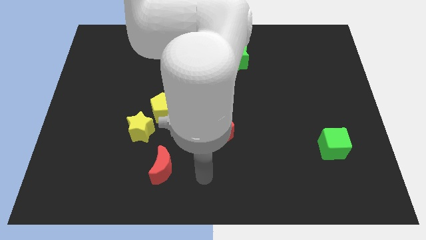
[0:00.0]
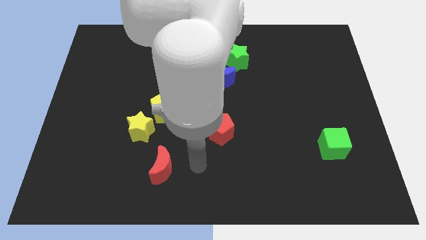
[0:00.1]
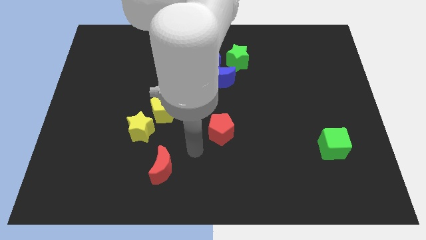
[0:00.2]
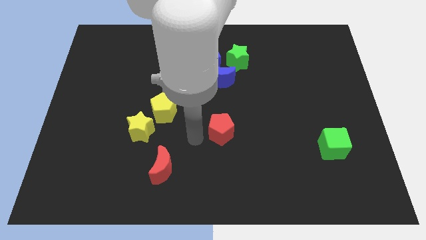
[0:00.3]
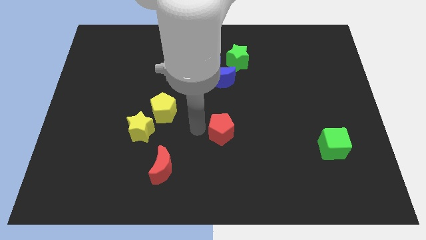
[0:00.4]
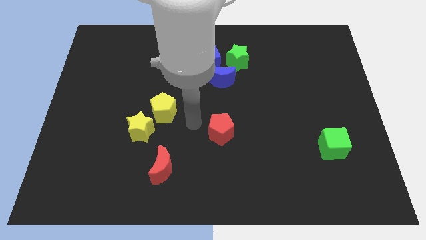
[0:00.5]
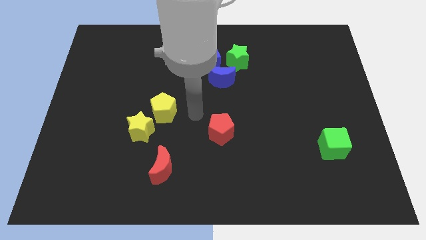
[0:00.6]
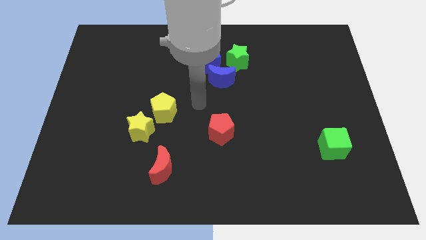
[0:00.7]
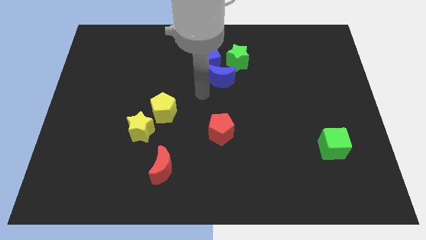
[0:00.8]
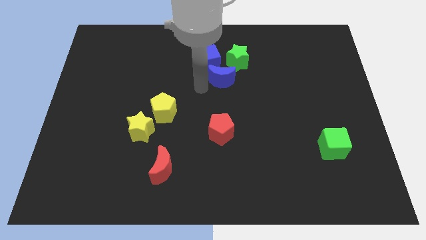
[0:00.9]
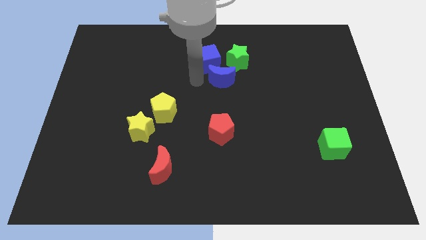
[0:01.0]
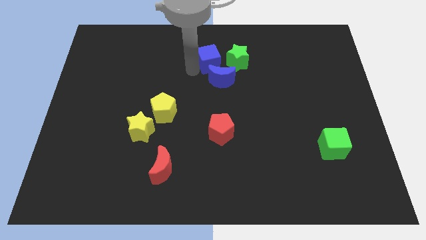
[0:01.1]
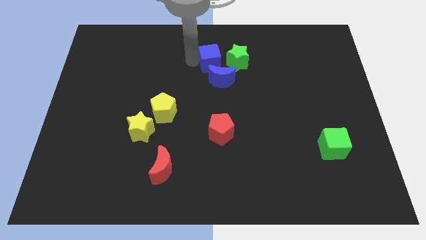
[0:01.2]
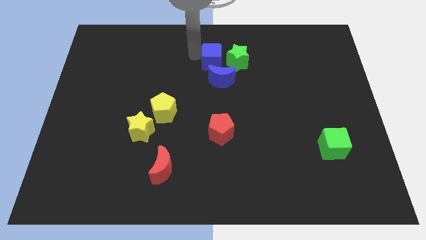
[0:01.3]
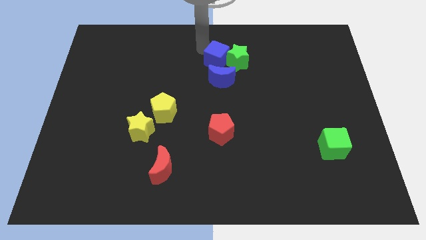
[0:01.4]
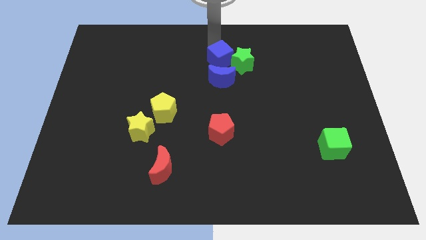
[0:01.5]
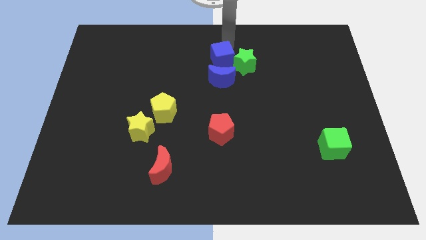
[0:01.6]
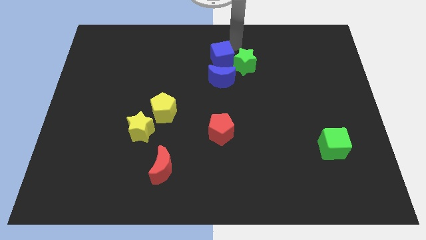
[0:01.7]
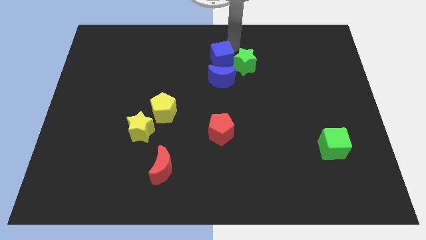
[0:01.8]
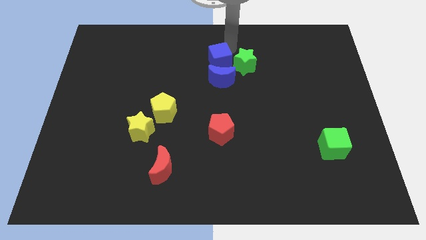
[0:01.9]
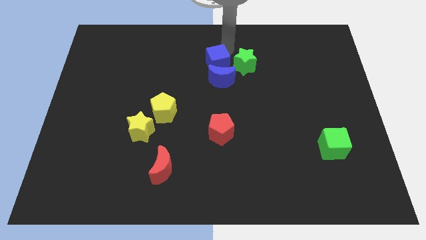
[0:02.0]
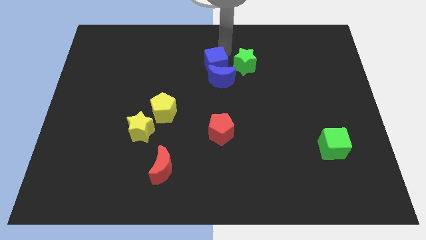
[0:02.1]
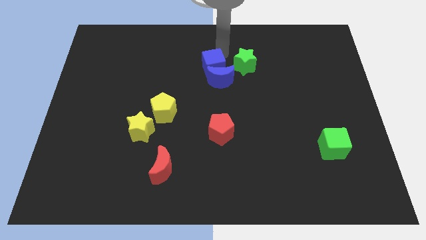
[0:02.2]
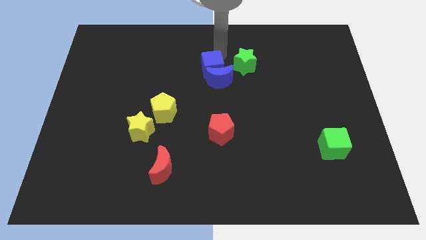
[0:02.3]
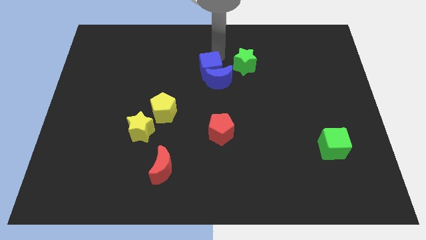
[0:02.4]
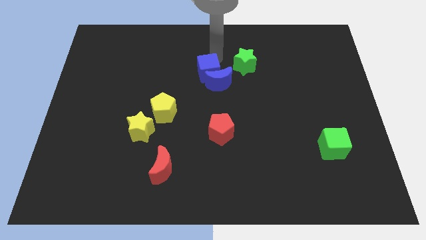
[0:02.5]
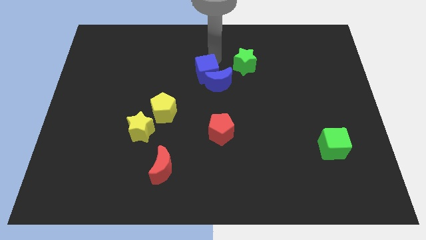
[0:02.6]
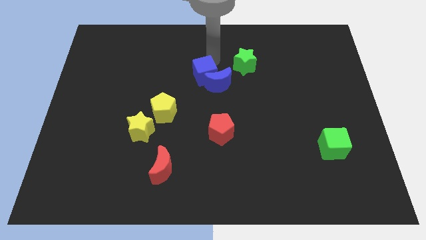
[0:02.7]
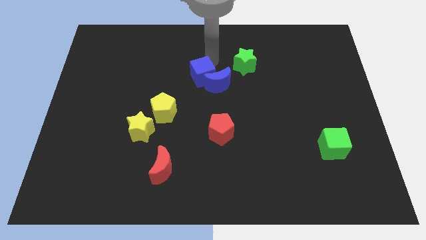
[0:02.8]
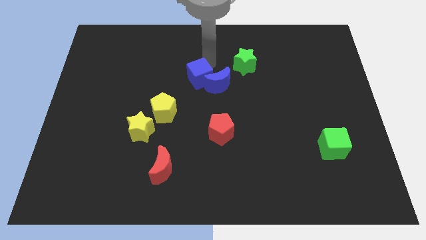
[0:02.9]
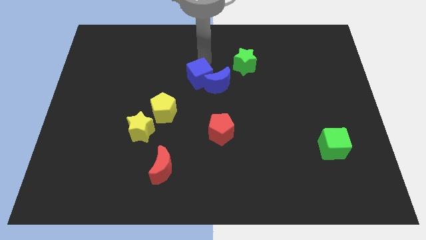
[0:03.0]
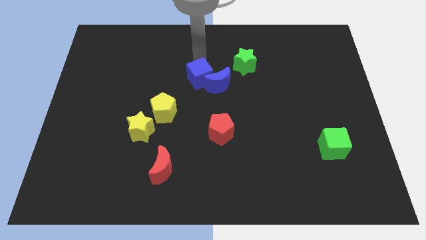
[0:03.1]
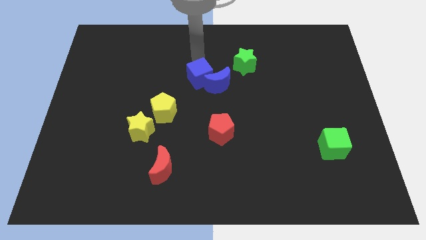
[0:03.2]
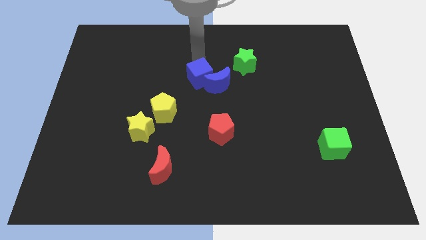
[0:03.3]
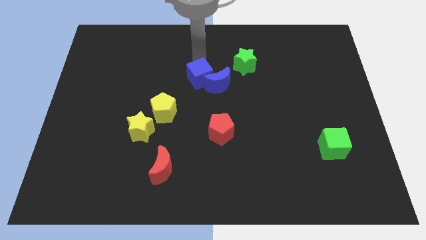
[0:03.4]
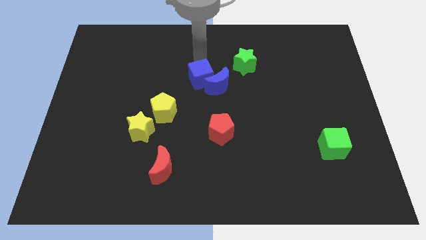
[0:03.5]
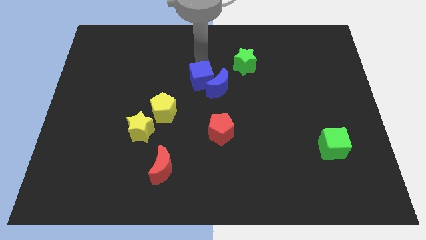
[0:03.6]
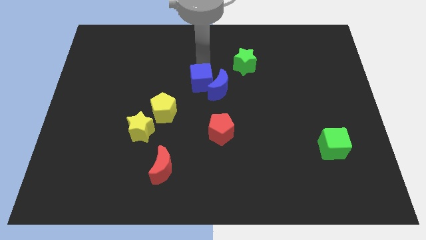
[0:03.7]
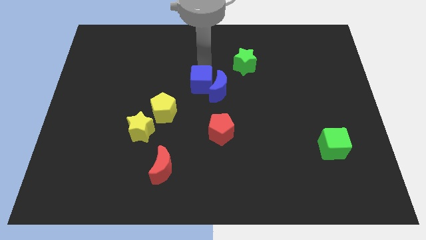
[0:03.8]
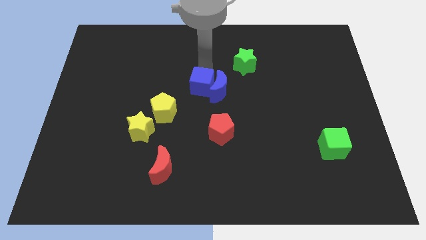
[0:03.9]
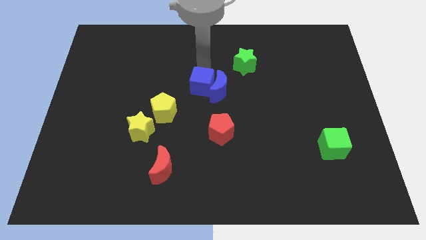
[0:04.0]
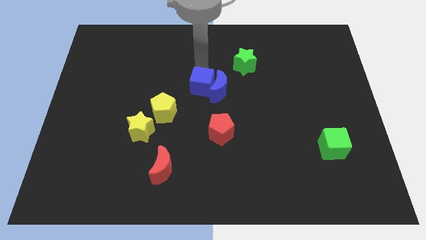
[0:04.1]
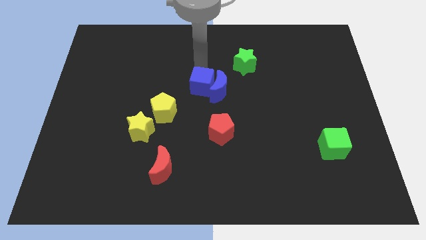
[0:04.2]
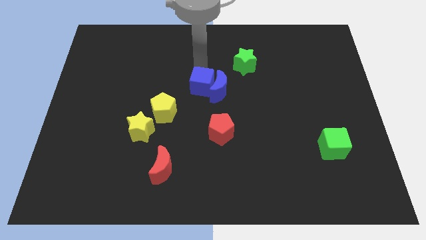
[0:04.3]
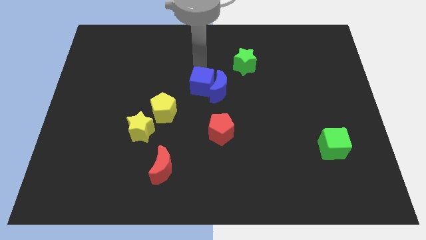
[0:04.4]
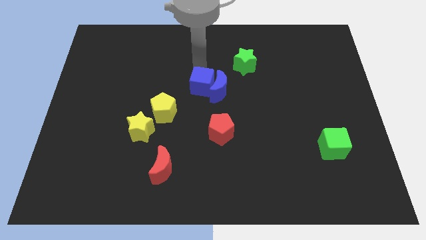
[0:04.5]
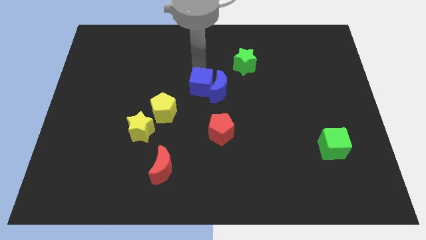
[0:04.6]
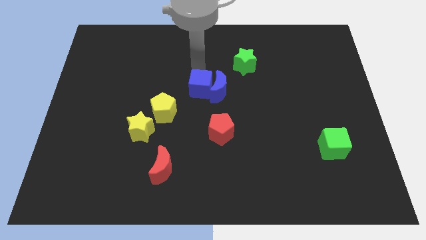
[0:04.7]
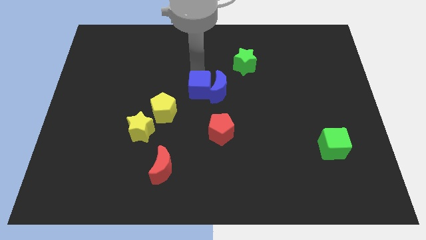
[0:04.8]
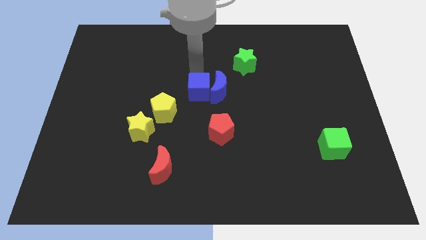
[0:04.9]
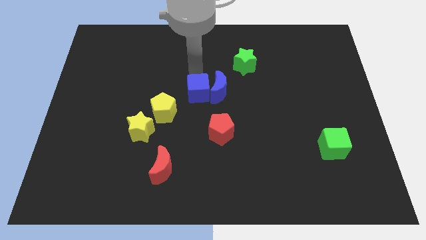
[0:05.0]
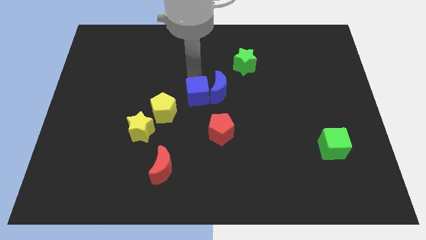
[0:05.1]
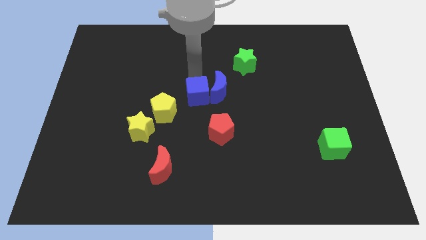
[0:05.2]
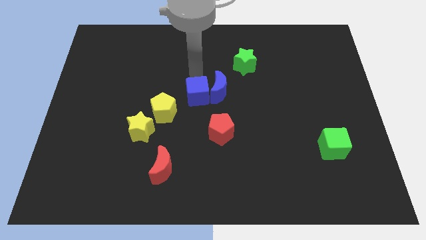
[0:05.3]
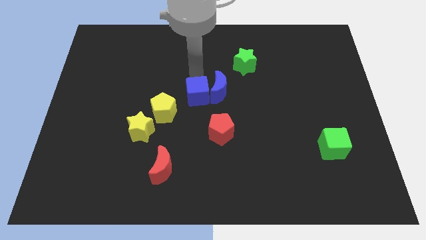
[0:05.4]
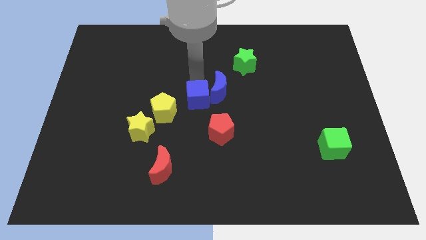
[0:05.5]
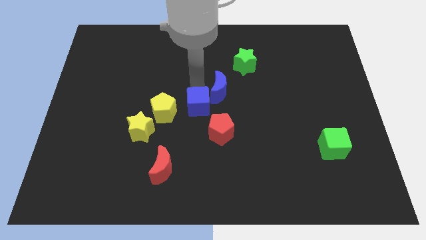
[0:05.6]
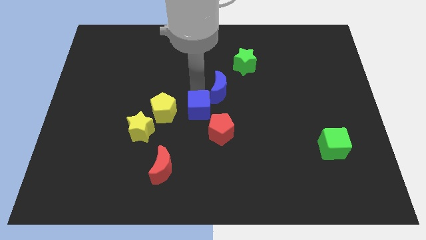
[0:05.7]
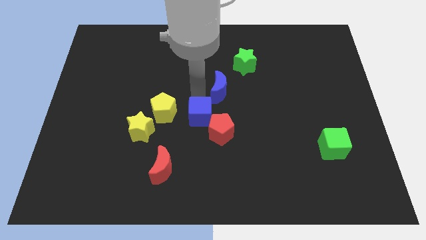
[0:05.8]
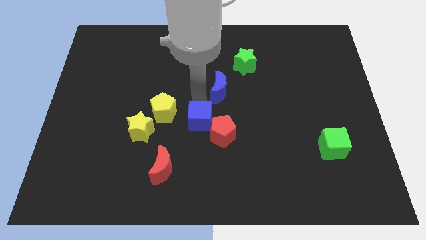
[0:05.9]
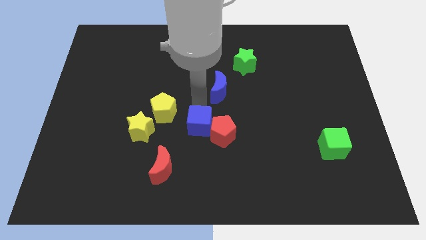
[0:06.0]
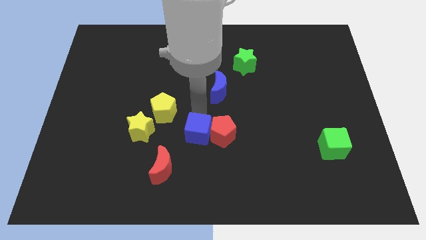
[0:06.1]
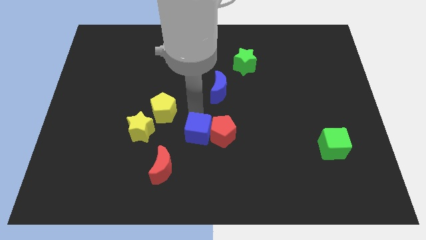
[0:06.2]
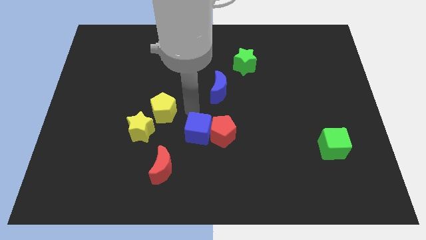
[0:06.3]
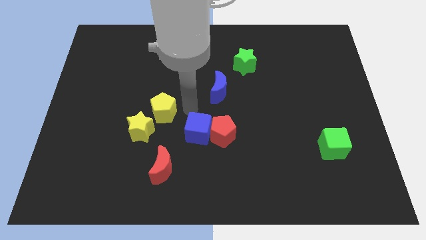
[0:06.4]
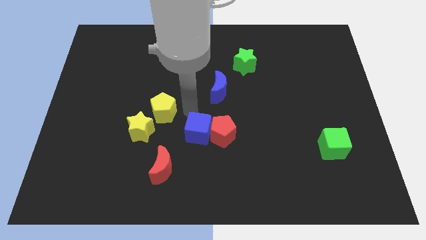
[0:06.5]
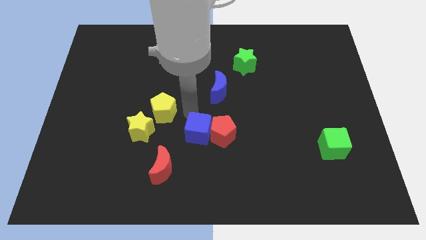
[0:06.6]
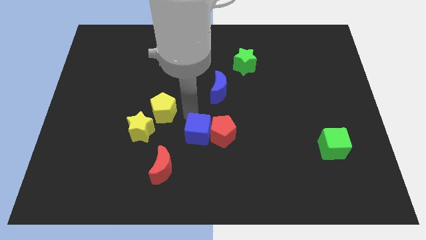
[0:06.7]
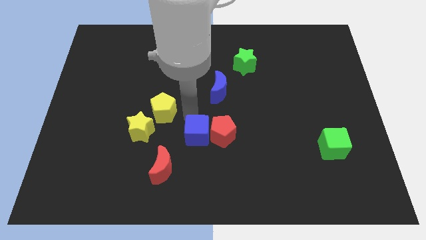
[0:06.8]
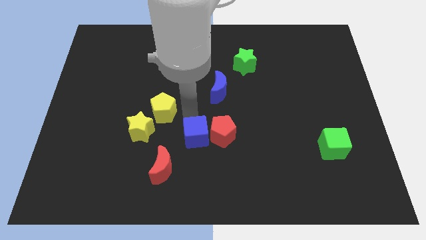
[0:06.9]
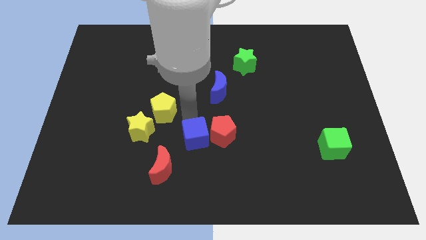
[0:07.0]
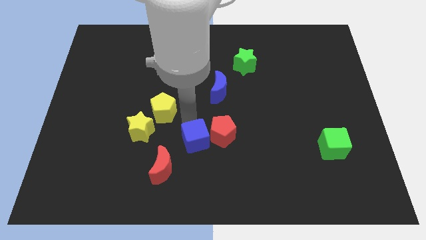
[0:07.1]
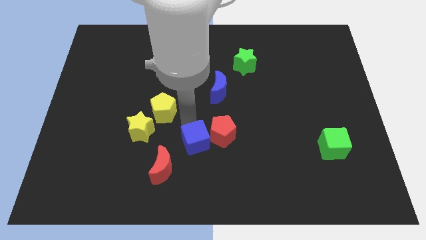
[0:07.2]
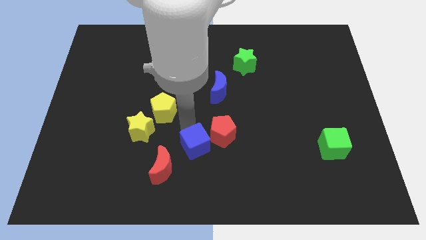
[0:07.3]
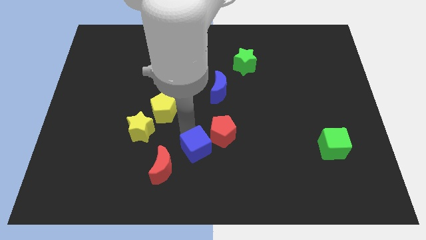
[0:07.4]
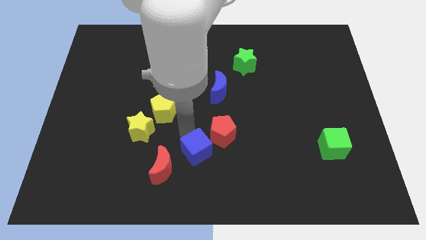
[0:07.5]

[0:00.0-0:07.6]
push the blue cube just right of the red moon
